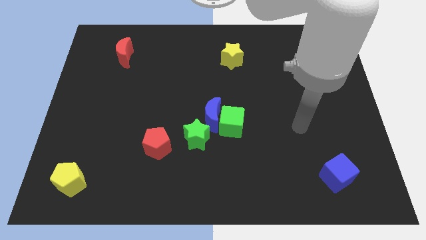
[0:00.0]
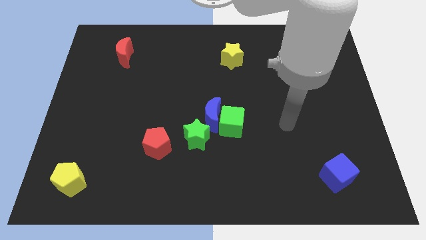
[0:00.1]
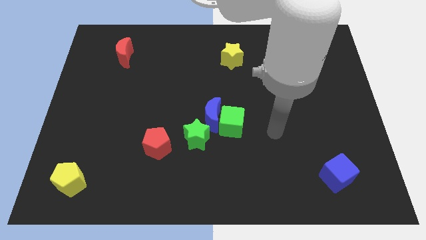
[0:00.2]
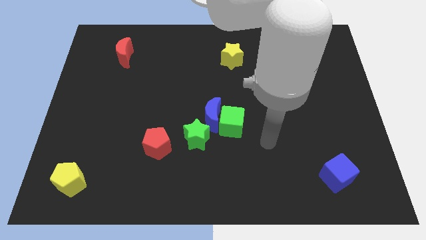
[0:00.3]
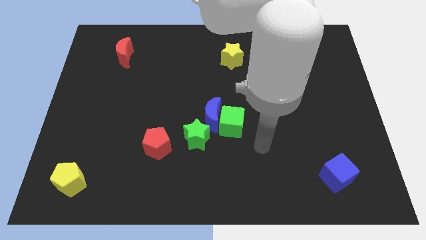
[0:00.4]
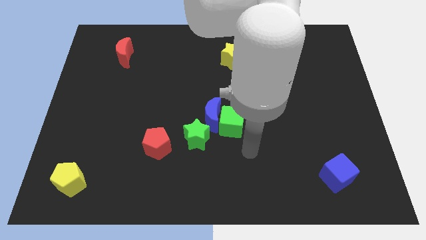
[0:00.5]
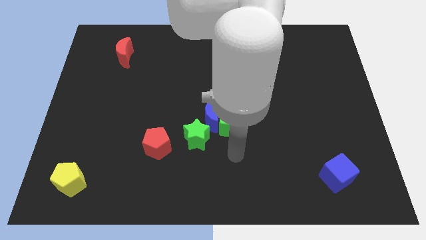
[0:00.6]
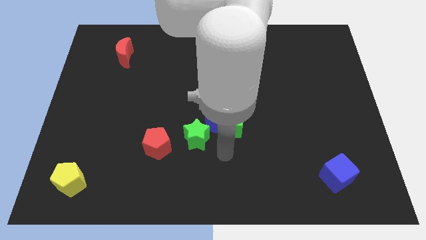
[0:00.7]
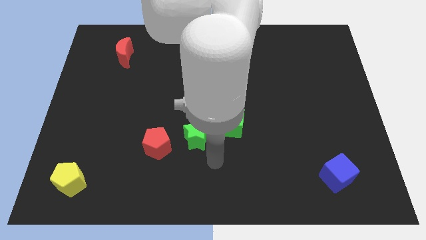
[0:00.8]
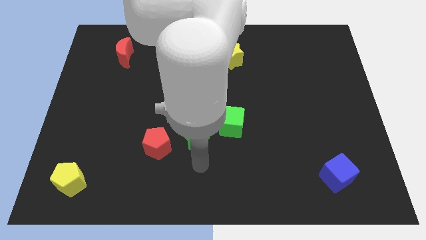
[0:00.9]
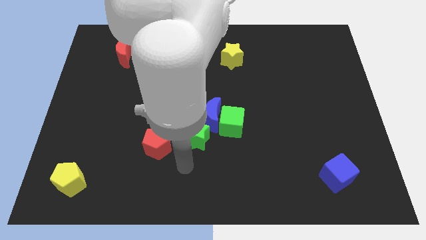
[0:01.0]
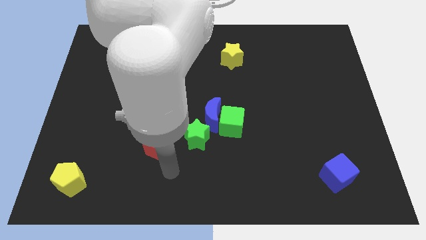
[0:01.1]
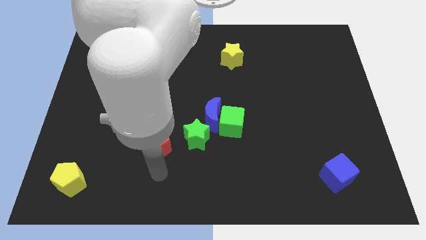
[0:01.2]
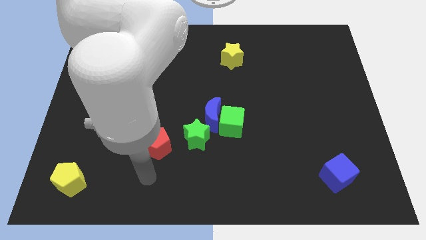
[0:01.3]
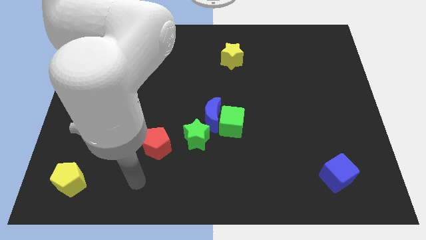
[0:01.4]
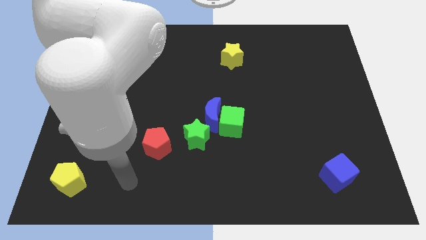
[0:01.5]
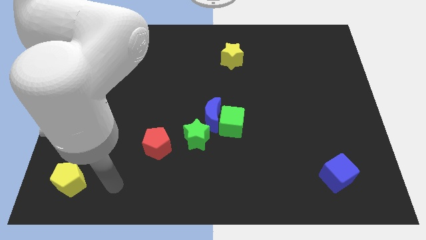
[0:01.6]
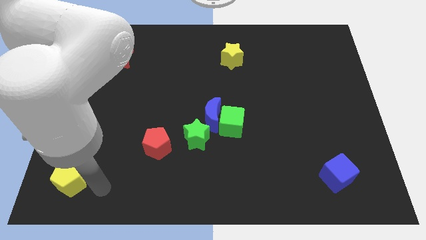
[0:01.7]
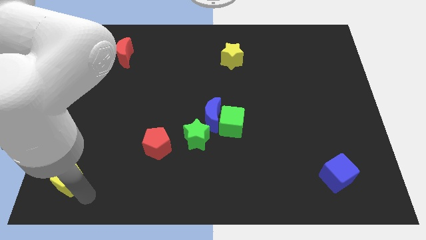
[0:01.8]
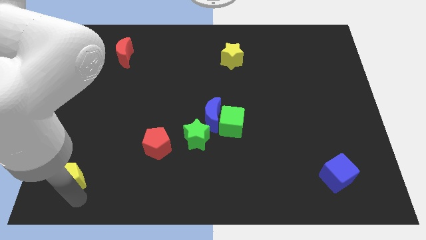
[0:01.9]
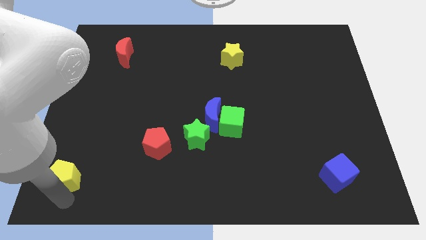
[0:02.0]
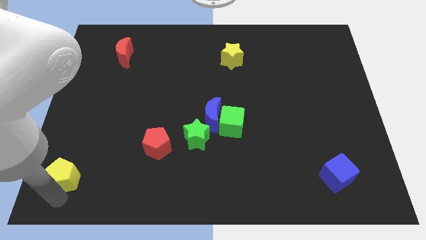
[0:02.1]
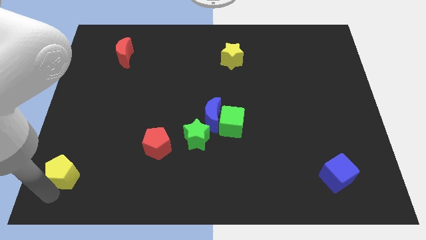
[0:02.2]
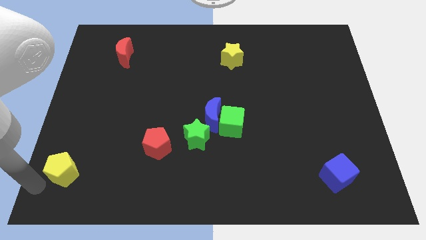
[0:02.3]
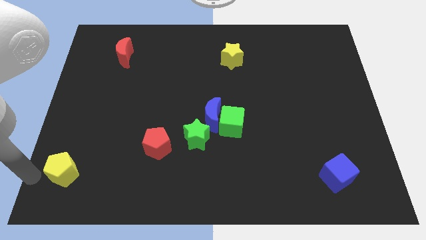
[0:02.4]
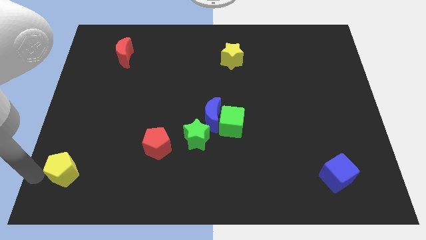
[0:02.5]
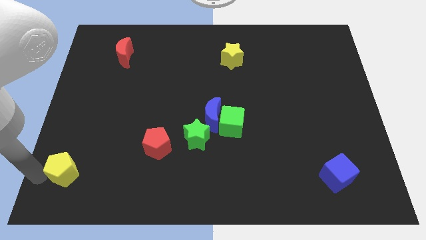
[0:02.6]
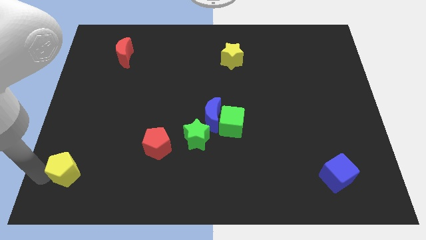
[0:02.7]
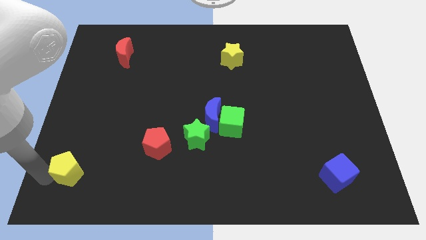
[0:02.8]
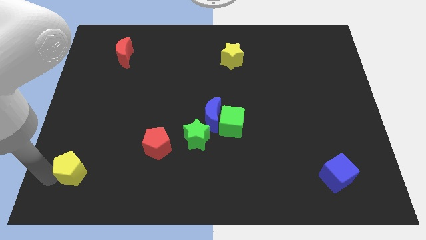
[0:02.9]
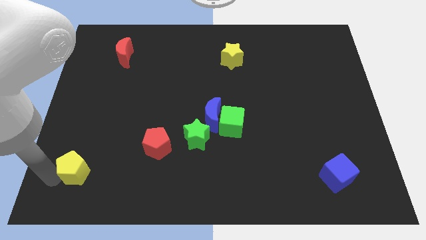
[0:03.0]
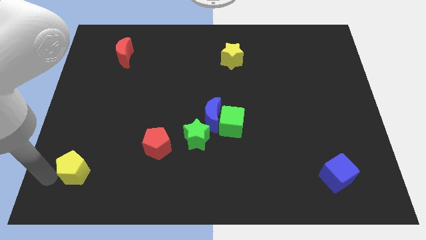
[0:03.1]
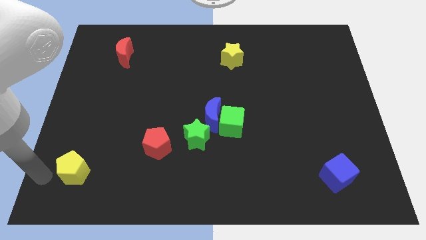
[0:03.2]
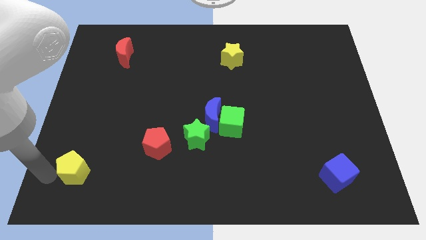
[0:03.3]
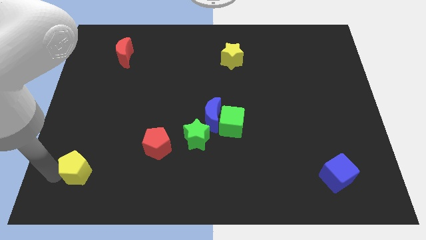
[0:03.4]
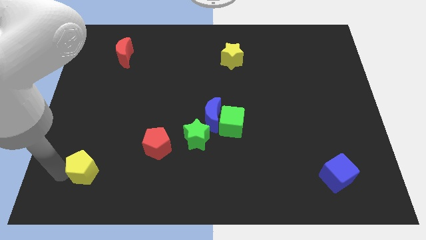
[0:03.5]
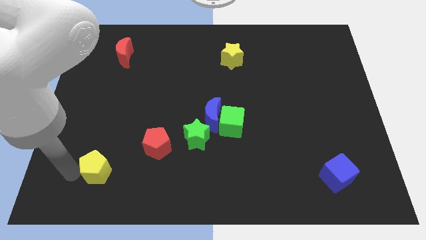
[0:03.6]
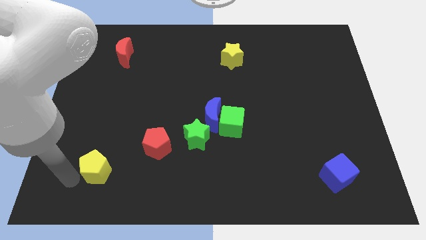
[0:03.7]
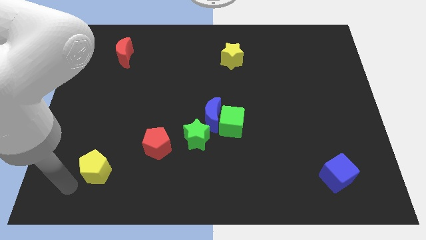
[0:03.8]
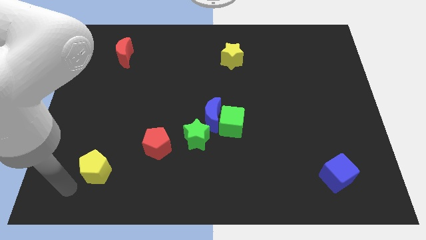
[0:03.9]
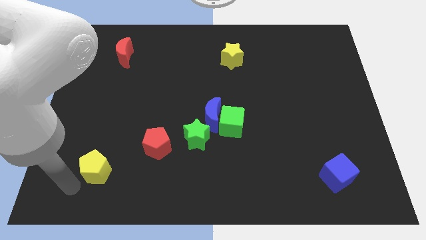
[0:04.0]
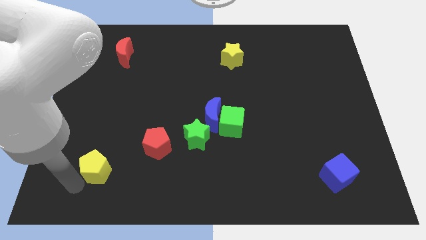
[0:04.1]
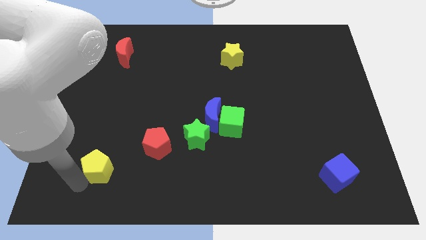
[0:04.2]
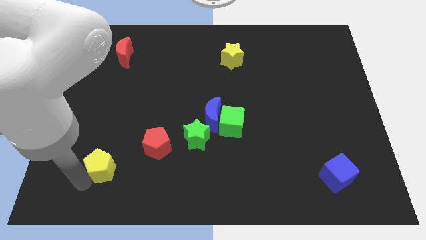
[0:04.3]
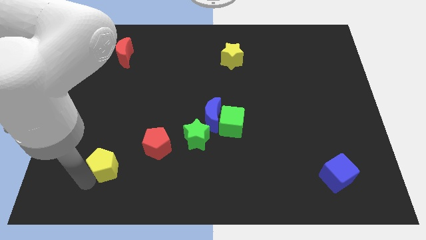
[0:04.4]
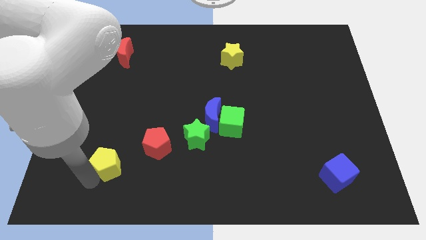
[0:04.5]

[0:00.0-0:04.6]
slightly move the yellow pentagon diagonally upwards and right

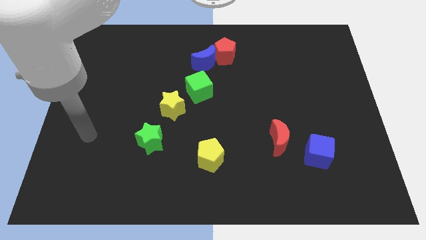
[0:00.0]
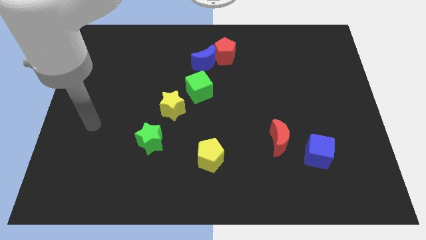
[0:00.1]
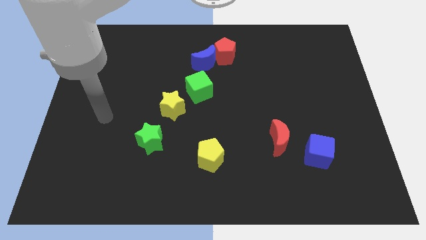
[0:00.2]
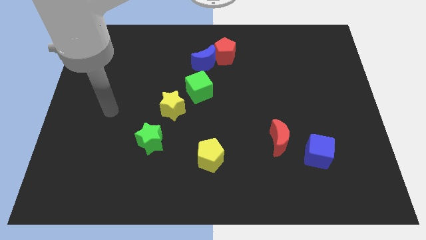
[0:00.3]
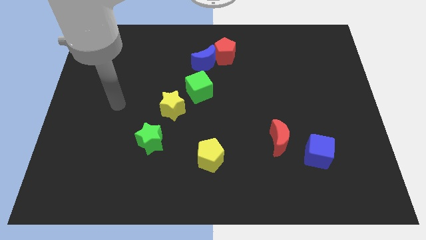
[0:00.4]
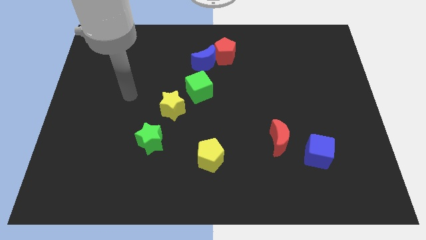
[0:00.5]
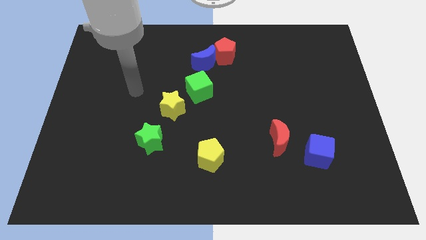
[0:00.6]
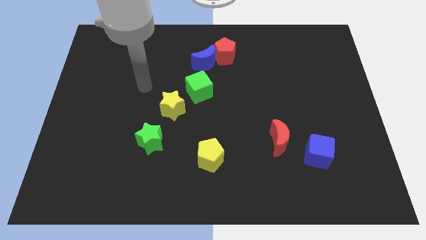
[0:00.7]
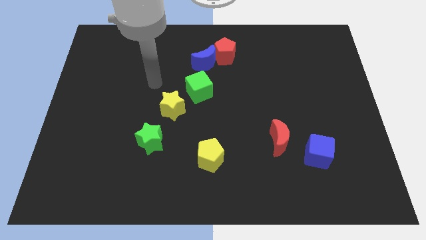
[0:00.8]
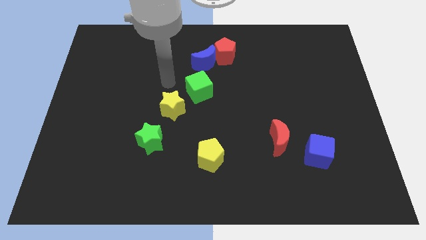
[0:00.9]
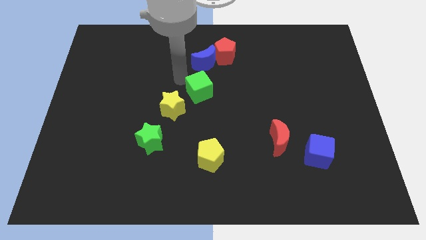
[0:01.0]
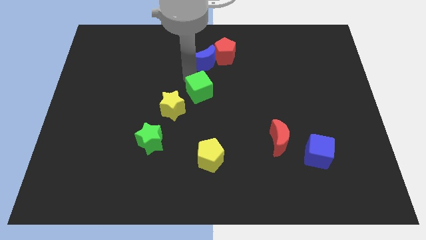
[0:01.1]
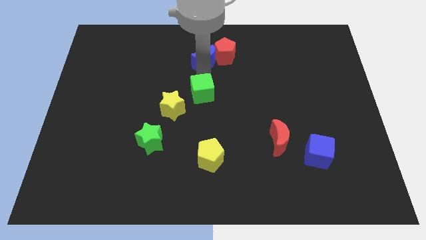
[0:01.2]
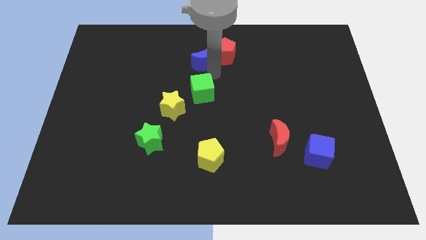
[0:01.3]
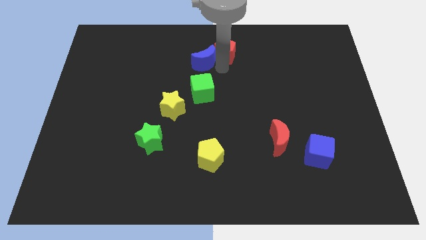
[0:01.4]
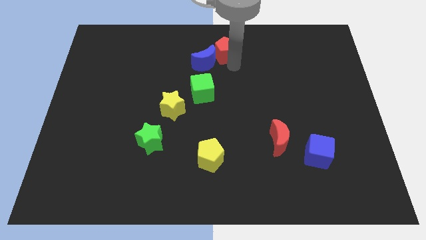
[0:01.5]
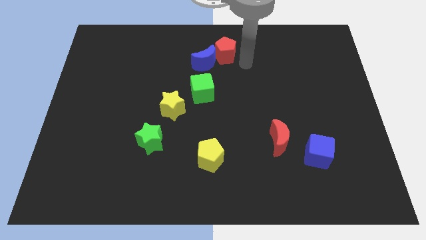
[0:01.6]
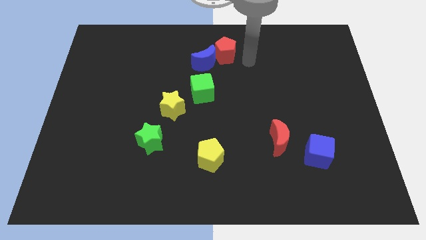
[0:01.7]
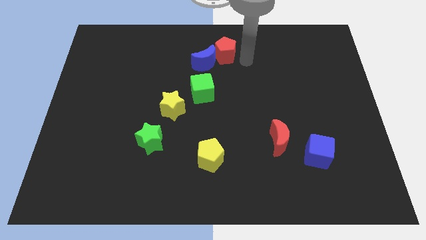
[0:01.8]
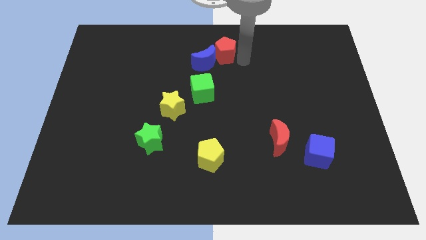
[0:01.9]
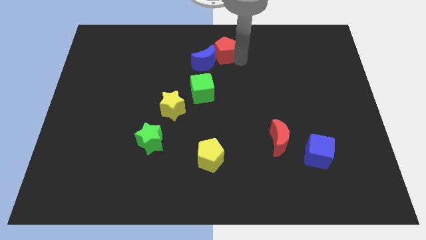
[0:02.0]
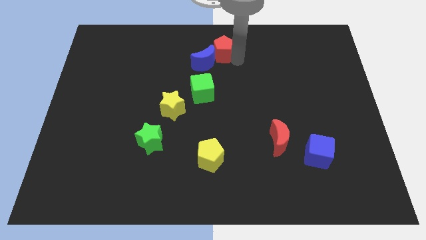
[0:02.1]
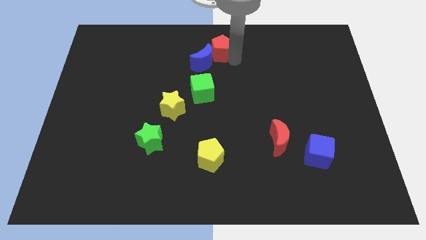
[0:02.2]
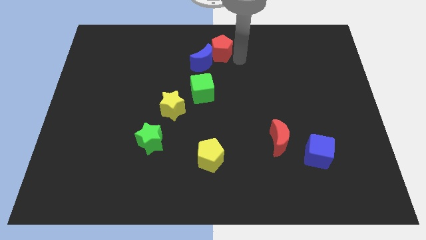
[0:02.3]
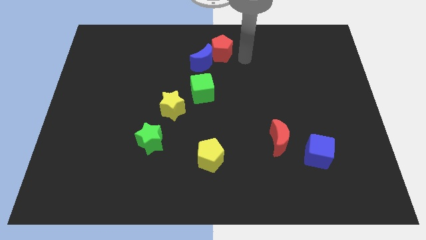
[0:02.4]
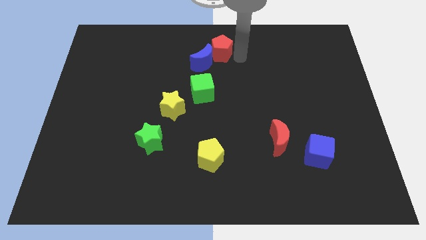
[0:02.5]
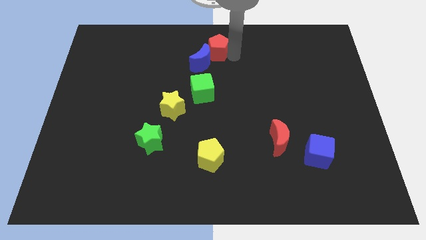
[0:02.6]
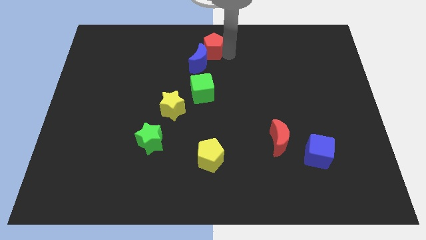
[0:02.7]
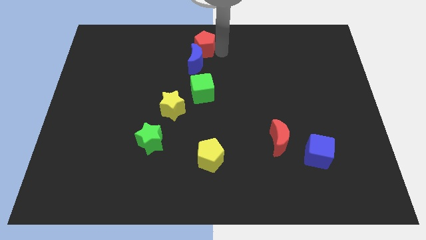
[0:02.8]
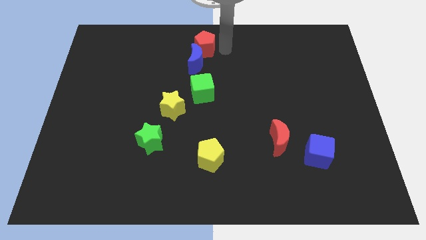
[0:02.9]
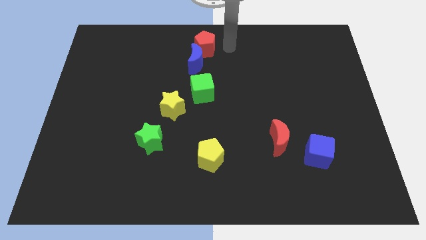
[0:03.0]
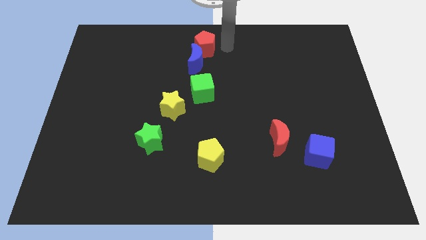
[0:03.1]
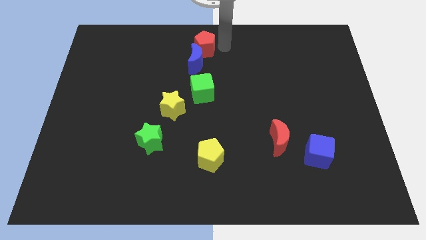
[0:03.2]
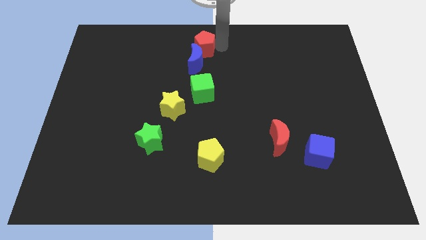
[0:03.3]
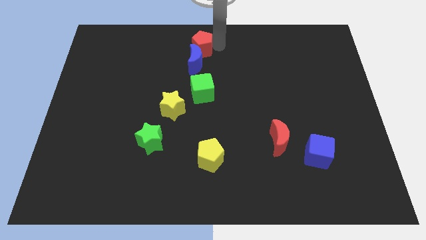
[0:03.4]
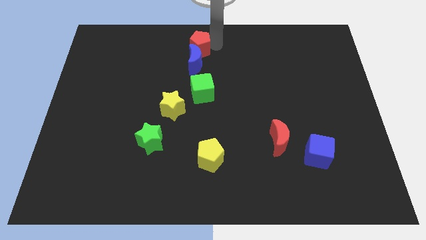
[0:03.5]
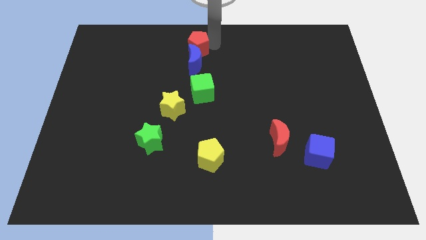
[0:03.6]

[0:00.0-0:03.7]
slightly slide the red pentagon left
